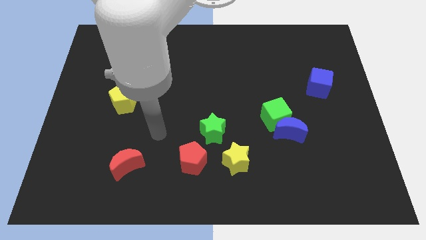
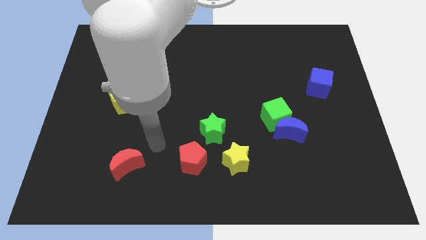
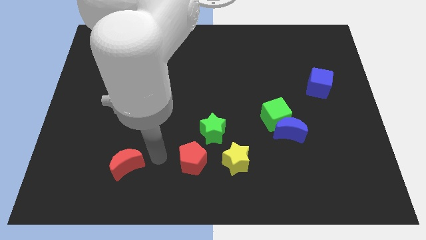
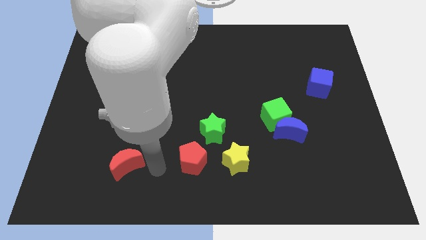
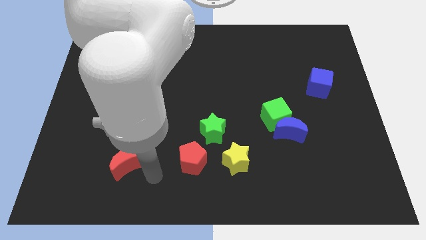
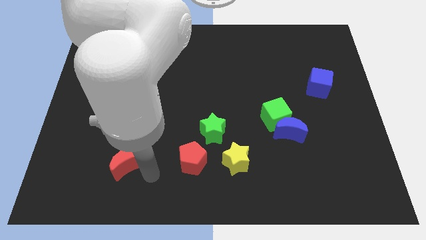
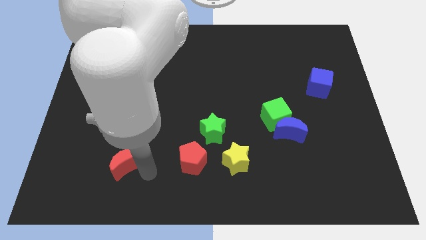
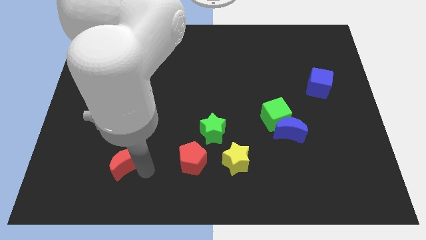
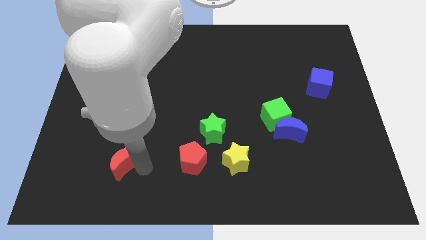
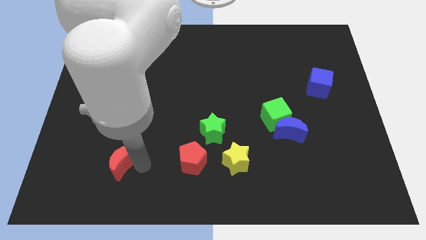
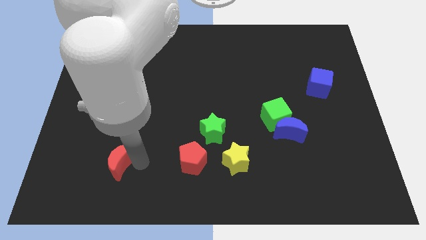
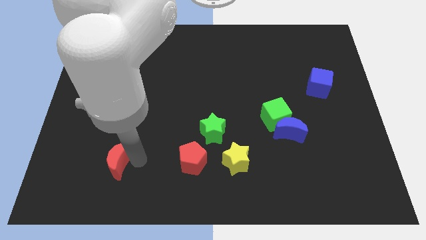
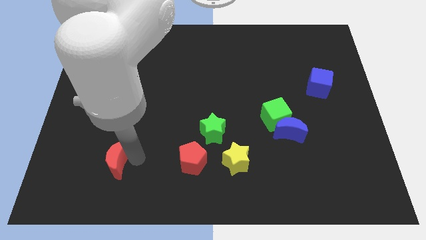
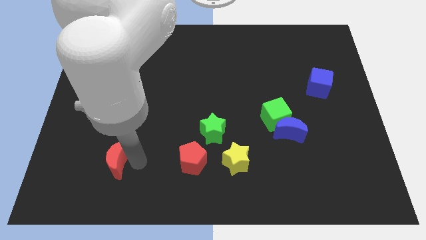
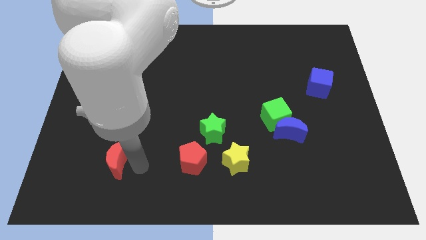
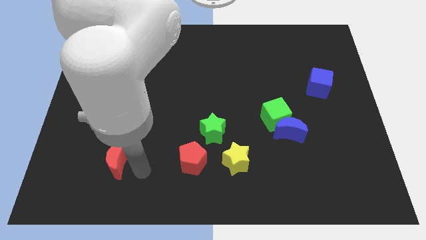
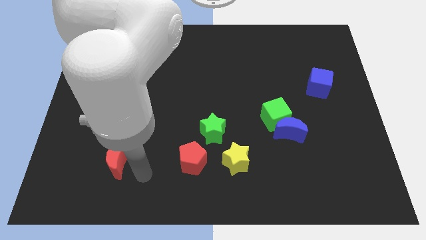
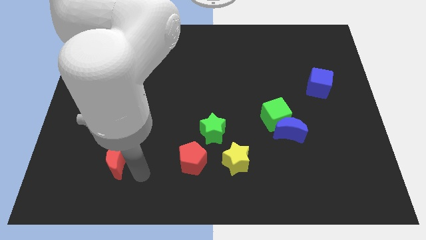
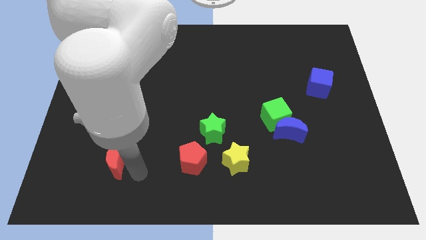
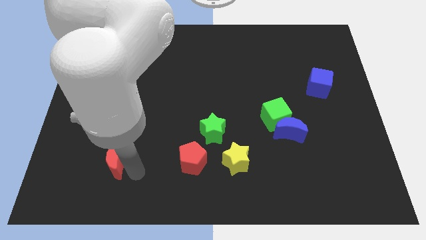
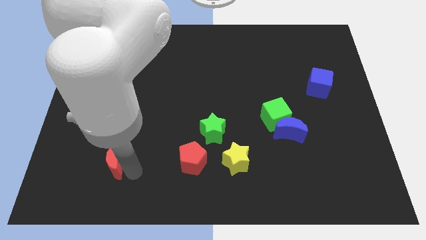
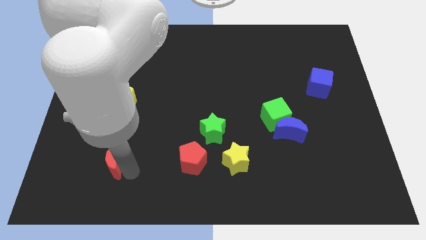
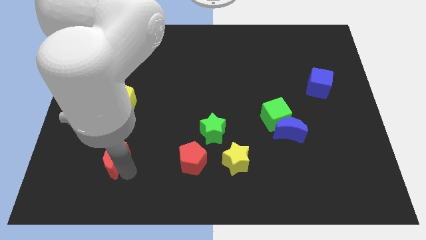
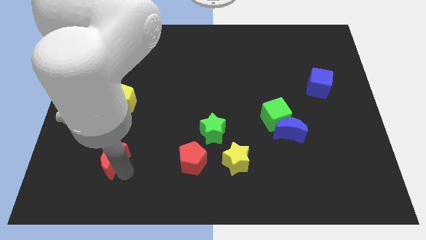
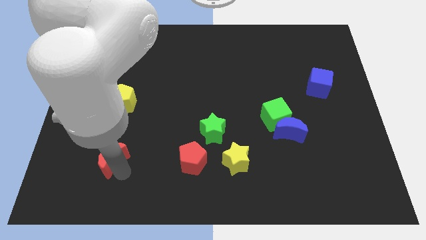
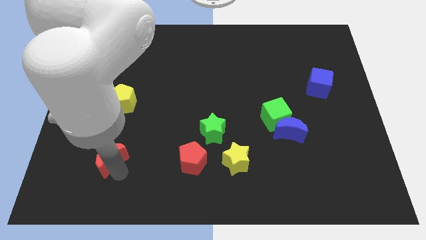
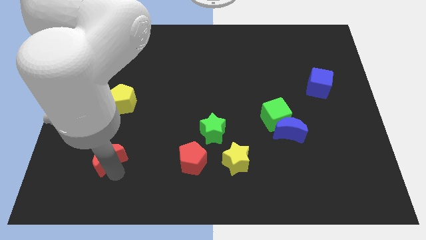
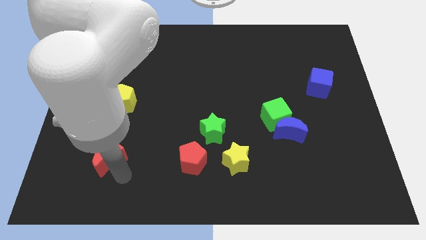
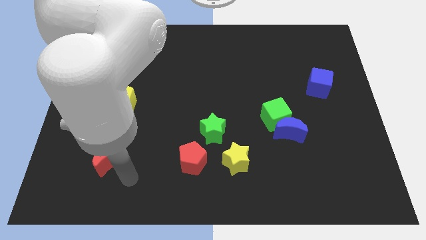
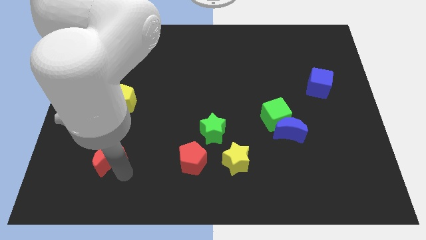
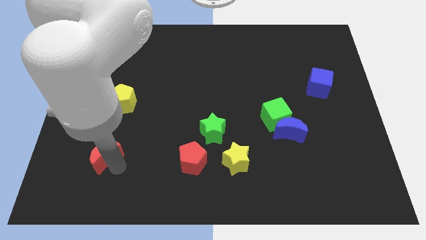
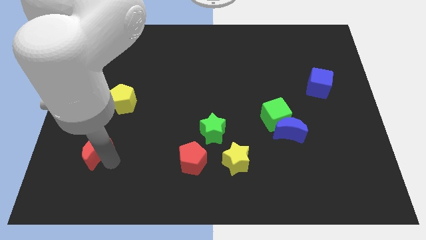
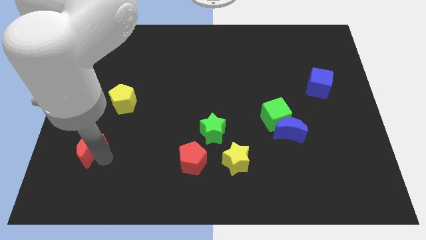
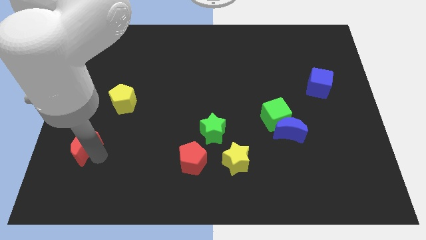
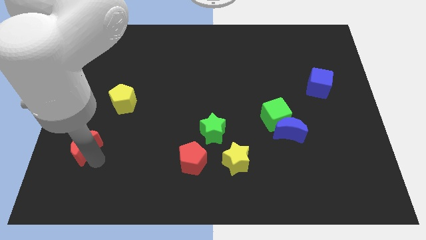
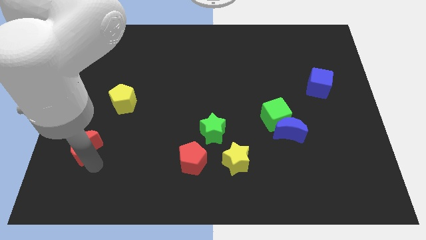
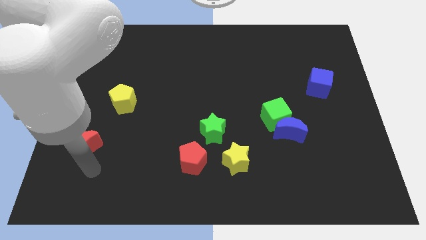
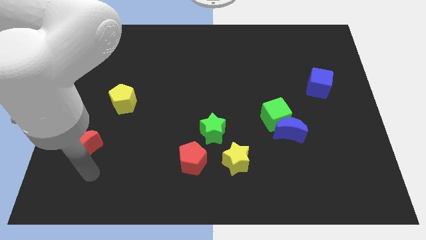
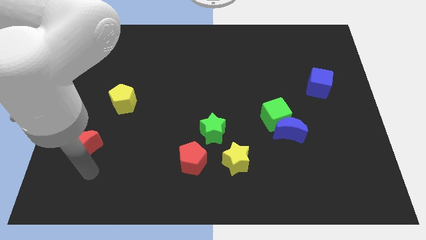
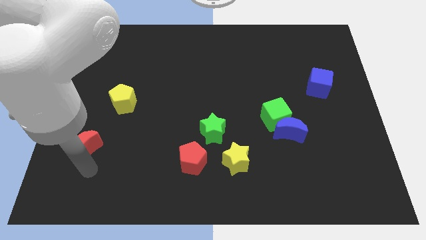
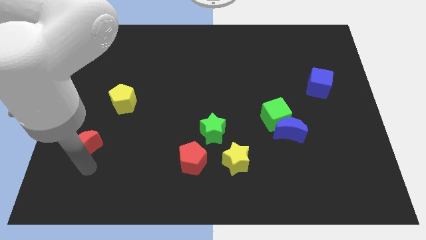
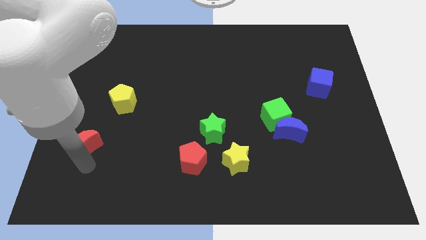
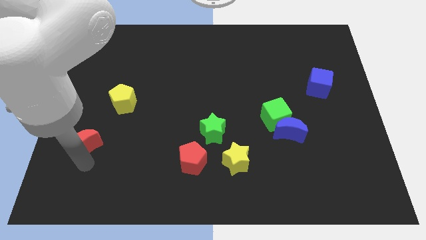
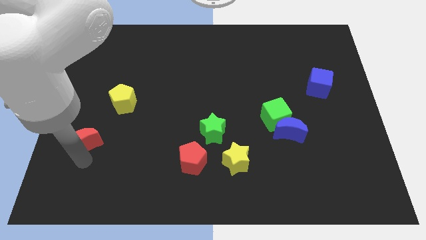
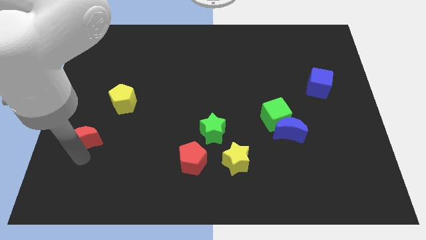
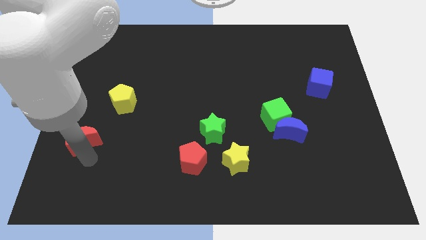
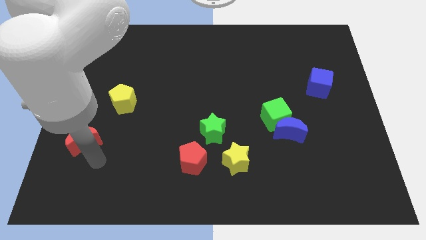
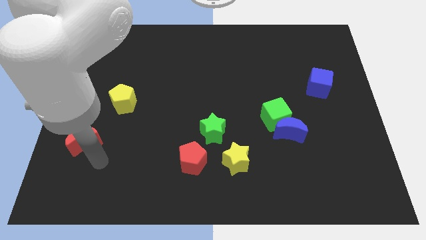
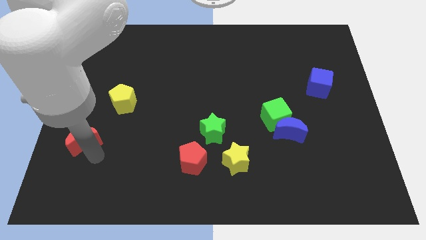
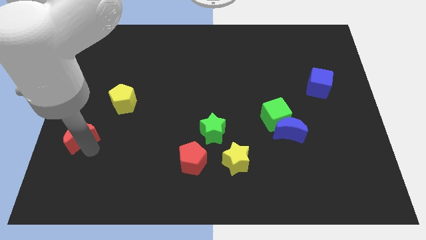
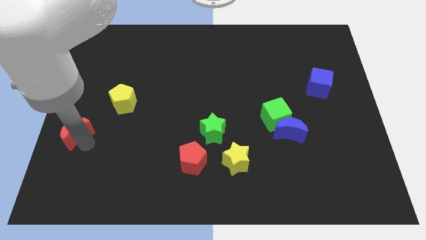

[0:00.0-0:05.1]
move the red moon to the center left

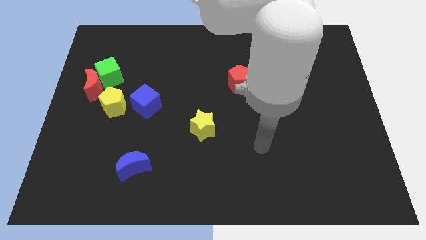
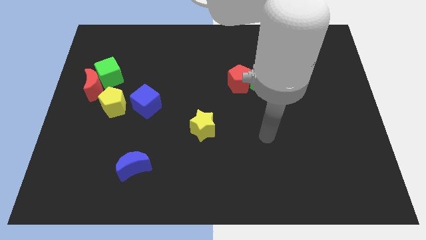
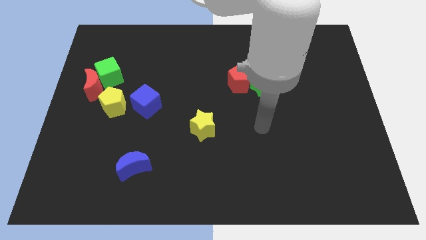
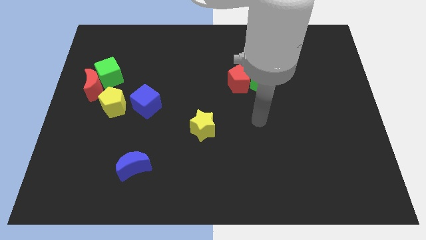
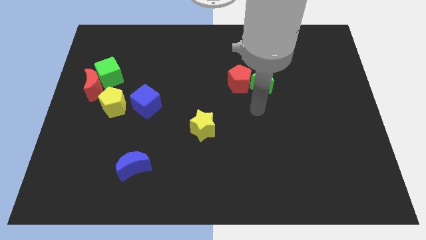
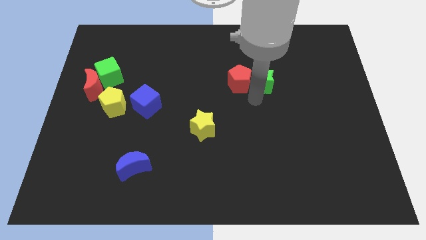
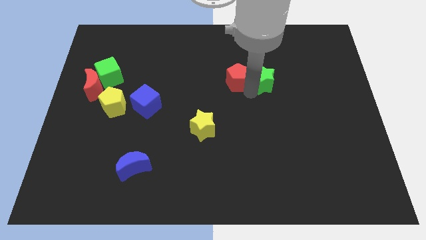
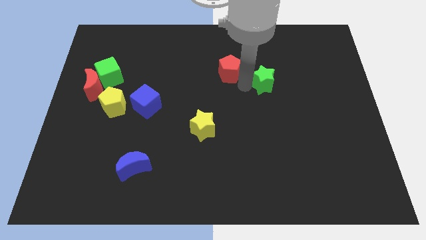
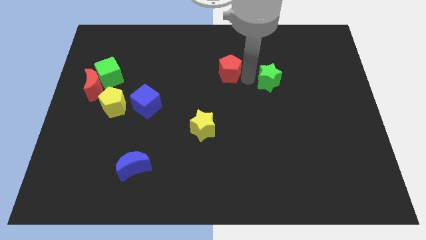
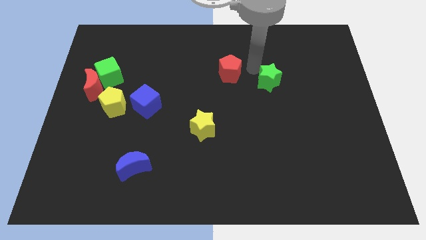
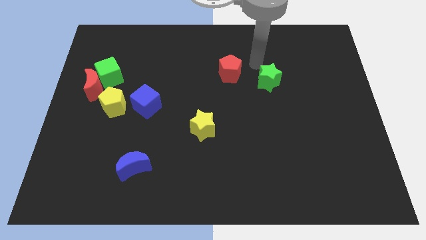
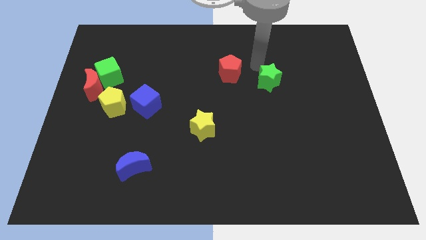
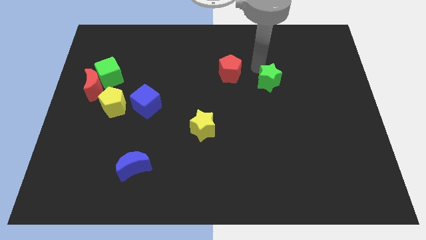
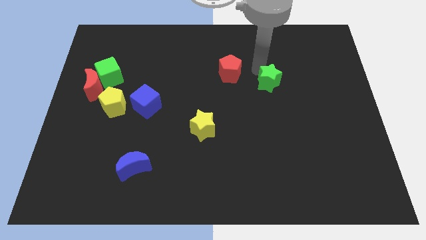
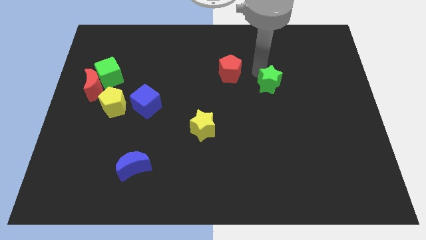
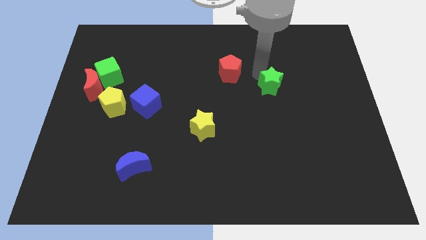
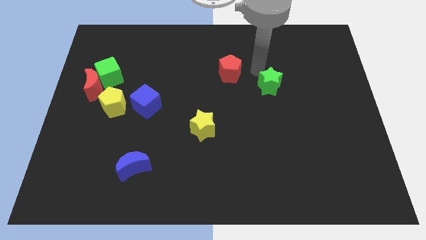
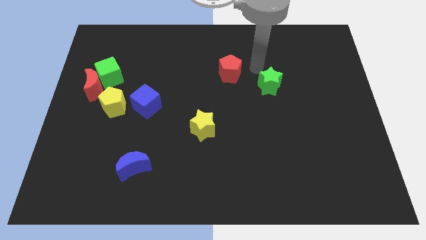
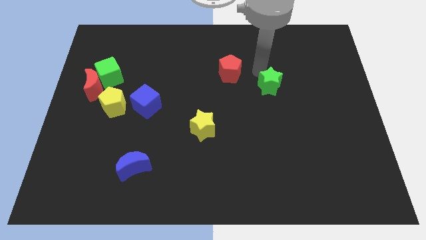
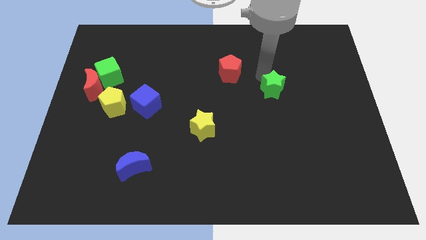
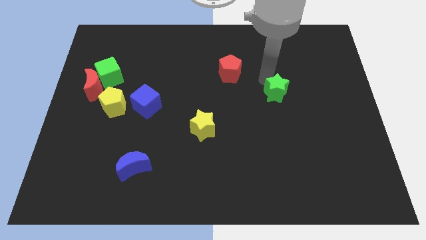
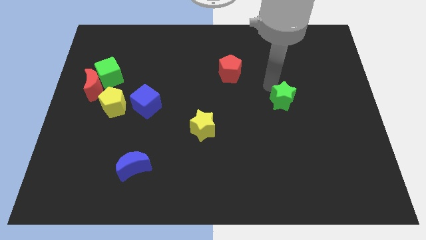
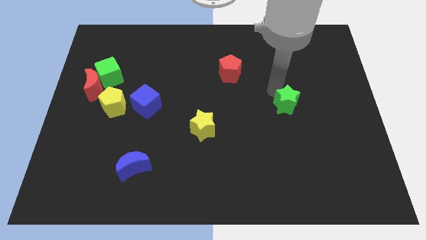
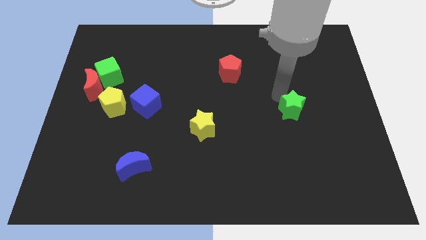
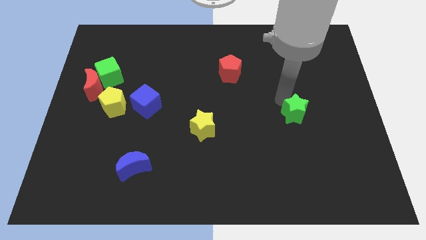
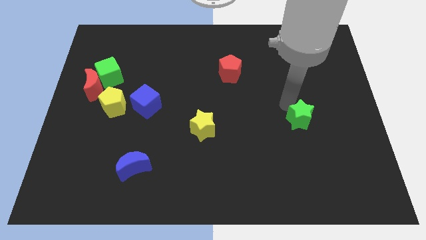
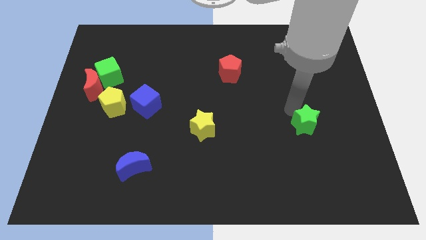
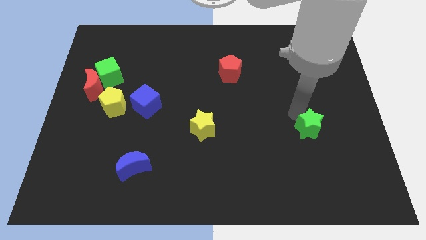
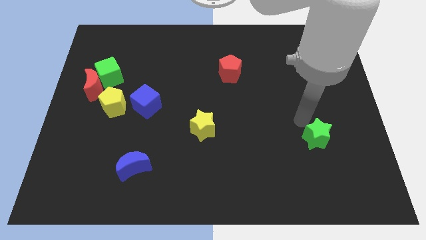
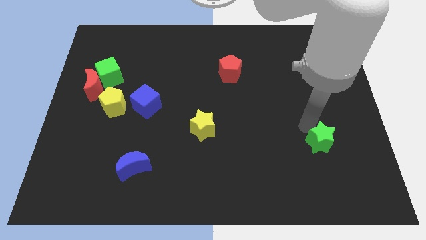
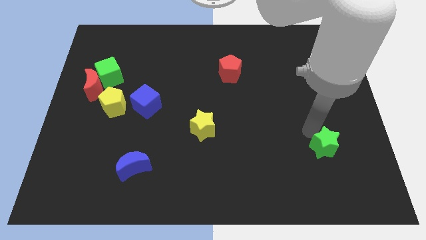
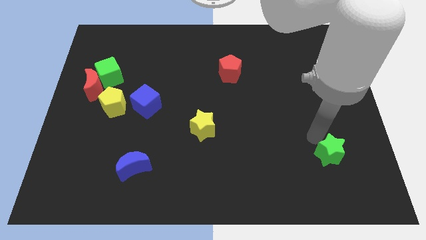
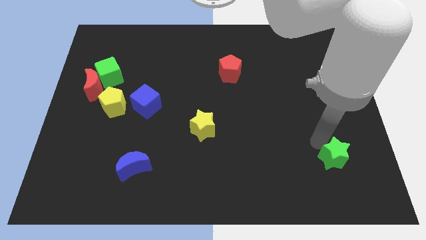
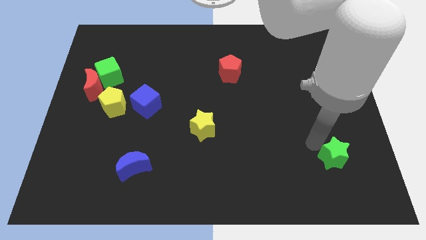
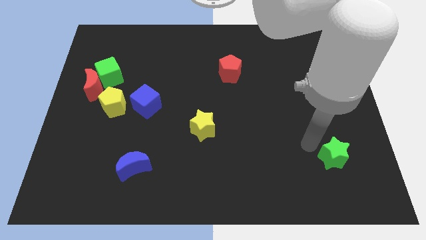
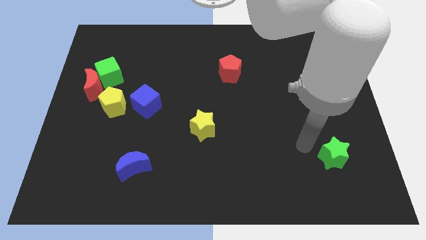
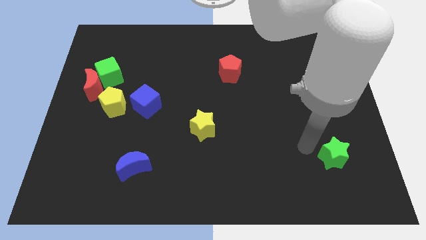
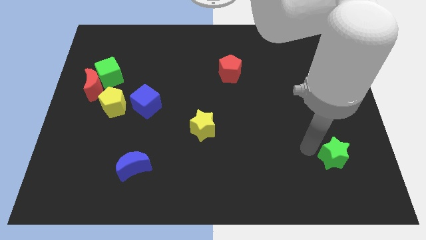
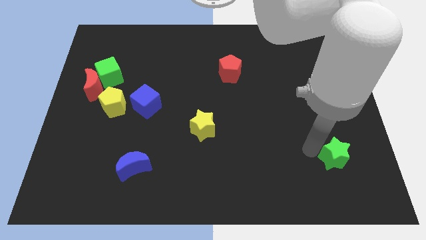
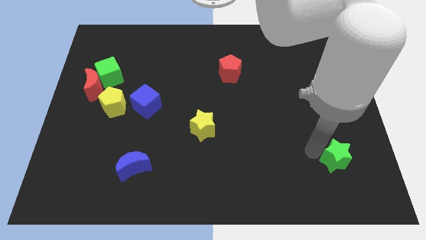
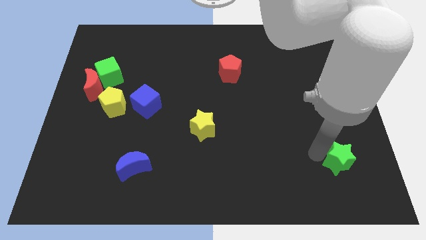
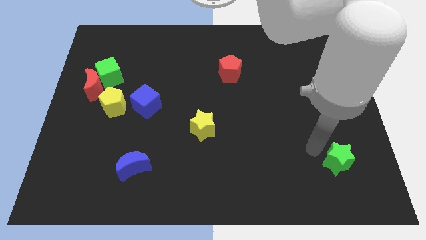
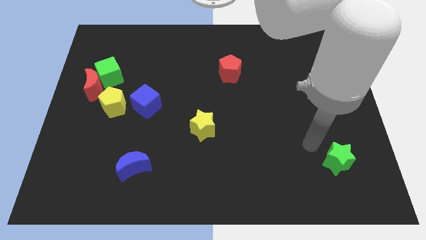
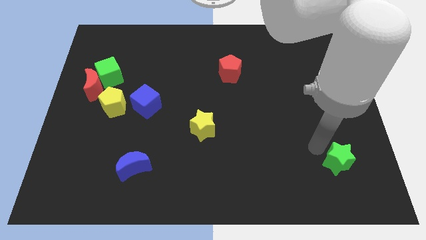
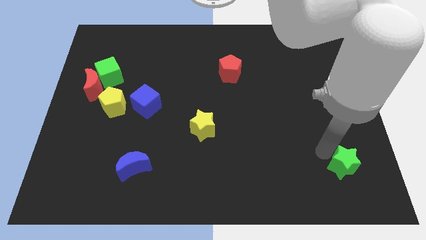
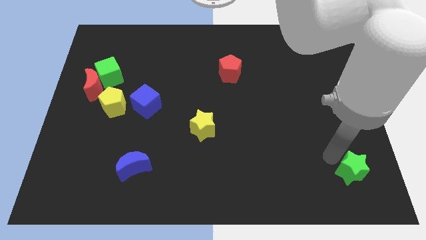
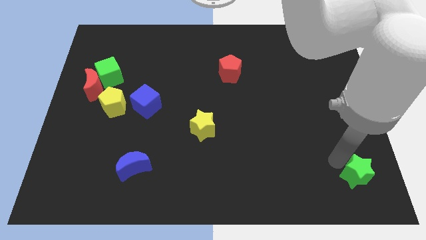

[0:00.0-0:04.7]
slide the green star to the lower right corner
